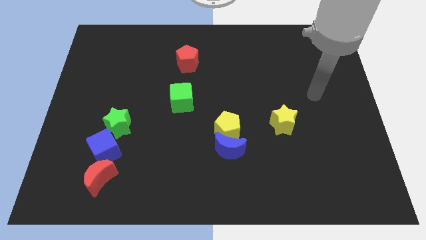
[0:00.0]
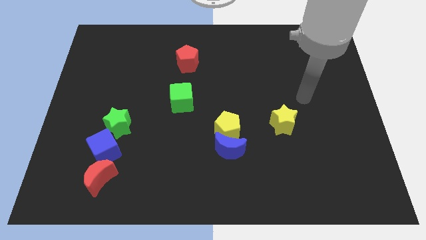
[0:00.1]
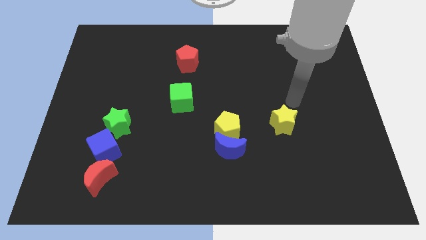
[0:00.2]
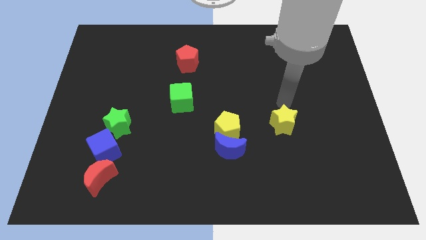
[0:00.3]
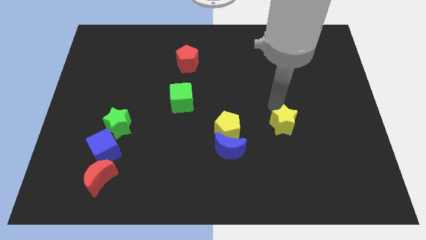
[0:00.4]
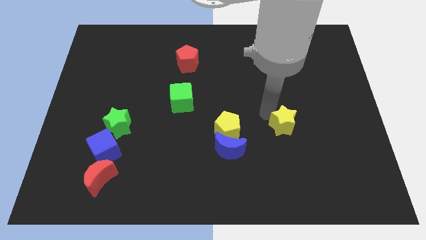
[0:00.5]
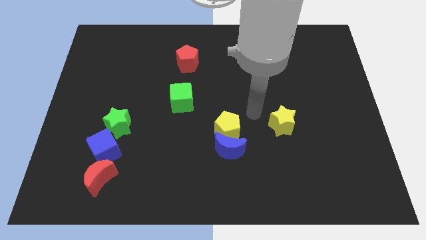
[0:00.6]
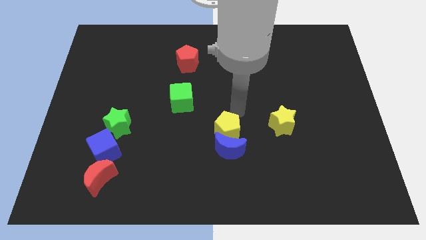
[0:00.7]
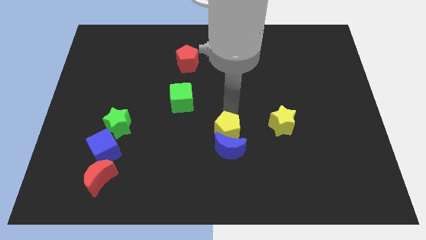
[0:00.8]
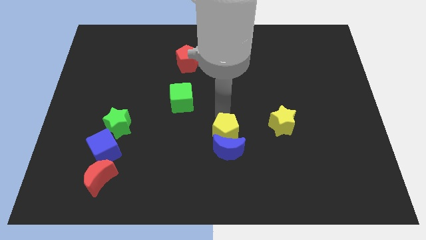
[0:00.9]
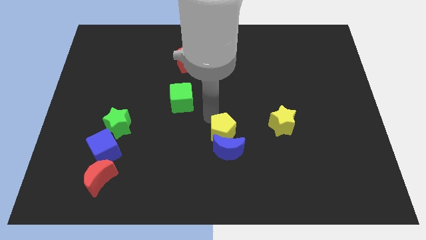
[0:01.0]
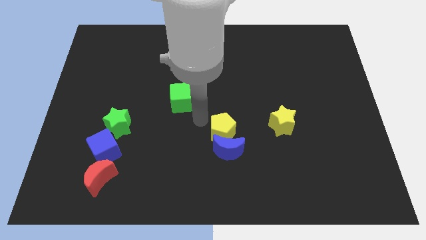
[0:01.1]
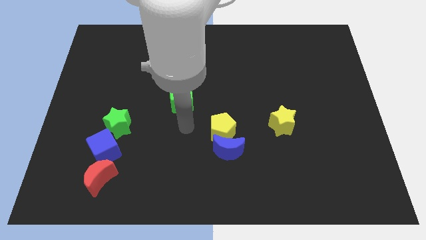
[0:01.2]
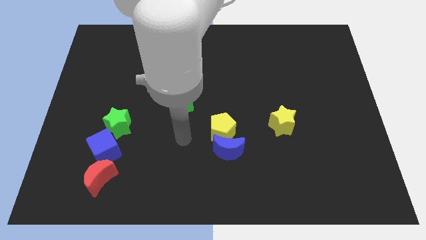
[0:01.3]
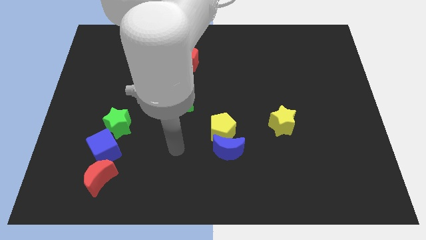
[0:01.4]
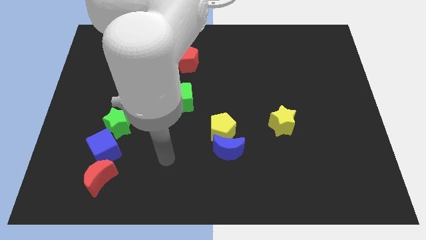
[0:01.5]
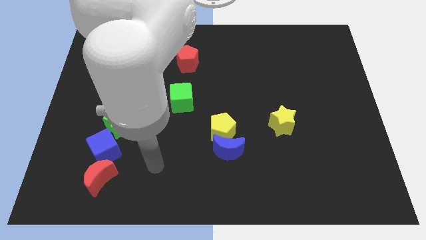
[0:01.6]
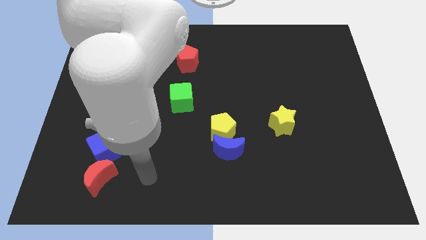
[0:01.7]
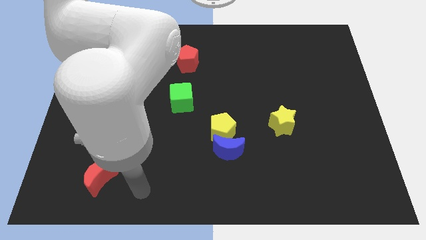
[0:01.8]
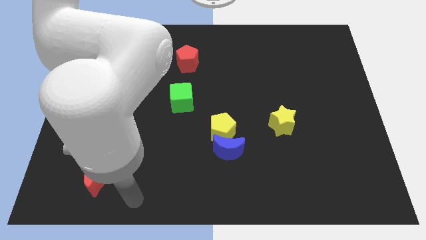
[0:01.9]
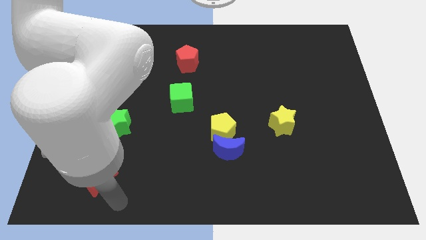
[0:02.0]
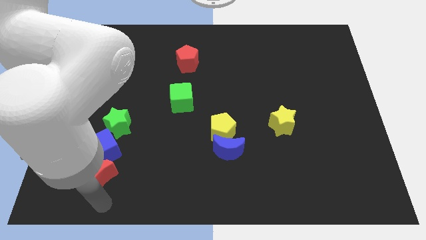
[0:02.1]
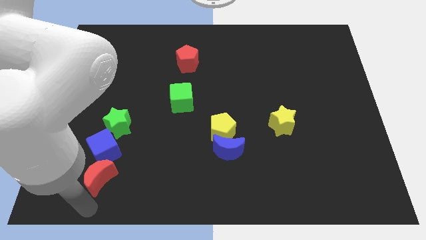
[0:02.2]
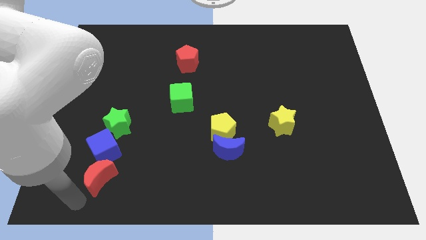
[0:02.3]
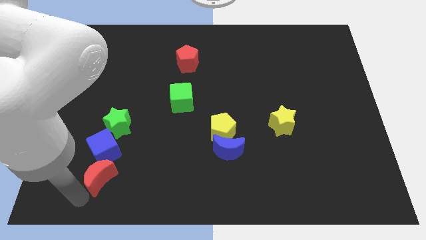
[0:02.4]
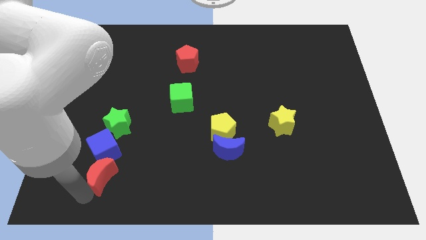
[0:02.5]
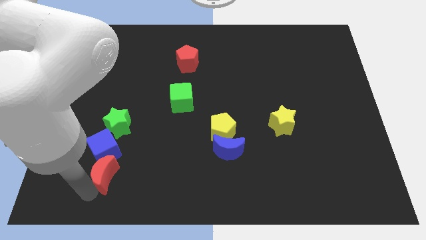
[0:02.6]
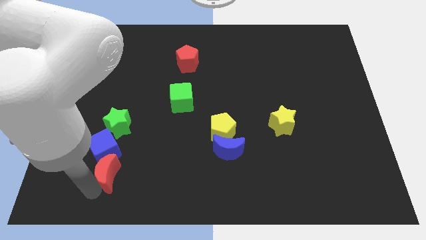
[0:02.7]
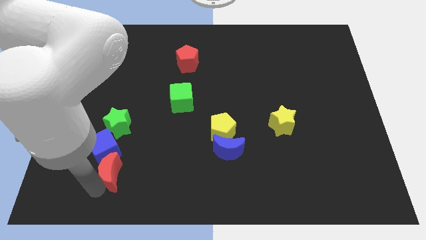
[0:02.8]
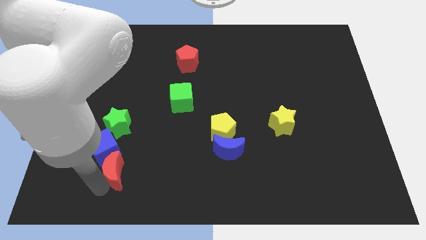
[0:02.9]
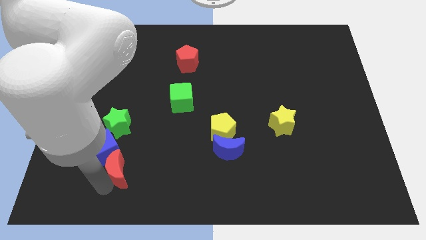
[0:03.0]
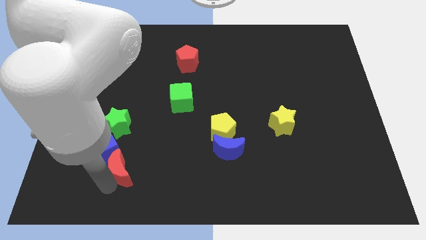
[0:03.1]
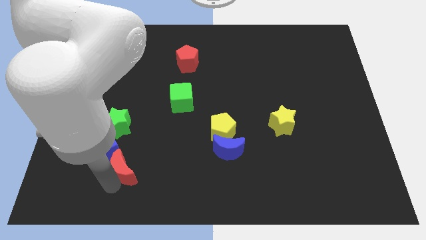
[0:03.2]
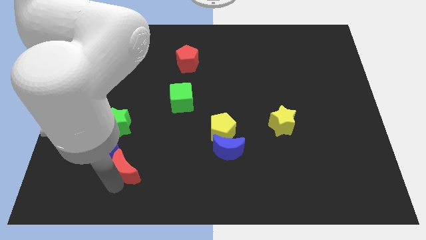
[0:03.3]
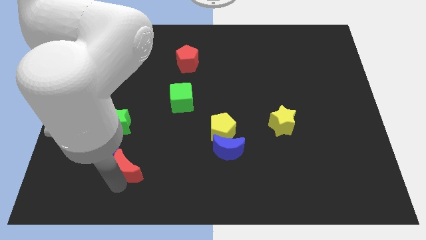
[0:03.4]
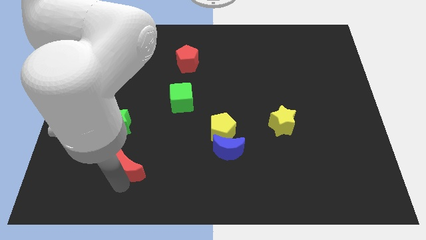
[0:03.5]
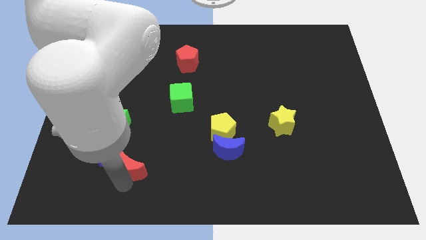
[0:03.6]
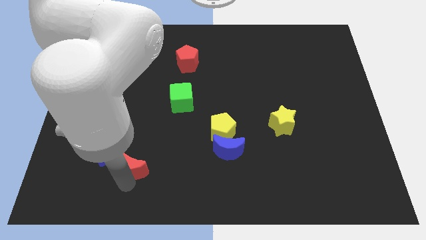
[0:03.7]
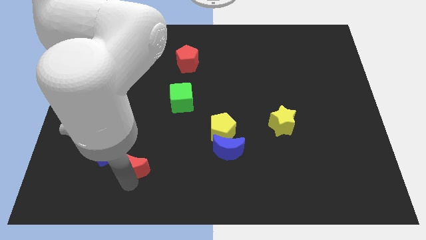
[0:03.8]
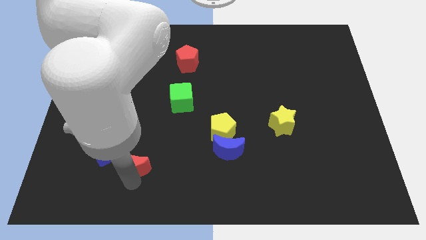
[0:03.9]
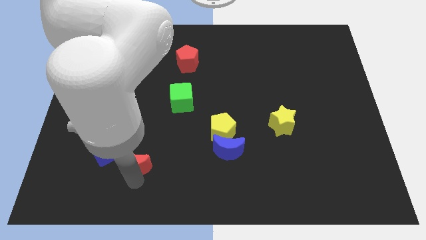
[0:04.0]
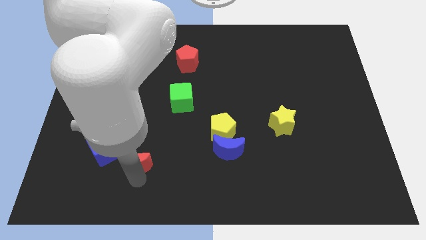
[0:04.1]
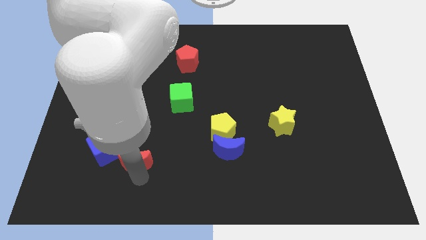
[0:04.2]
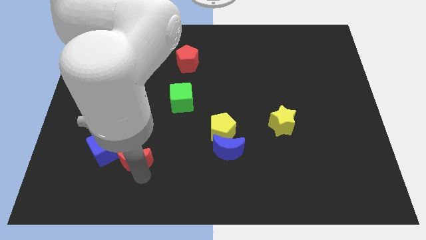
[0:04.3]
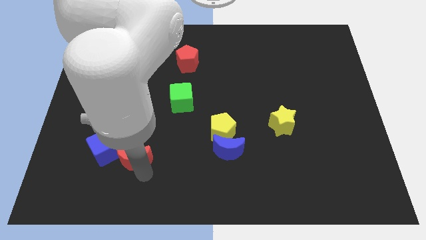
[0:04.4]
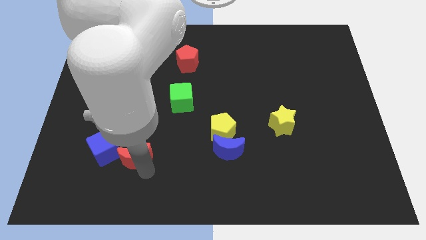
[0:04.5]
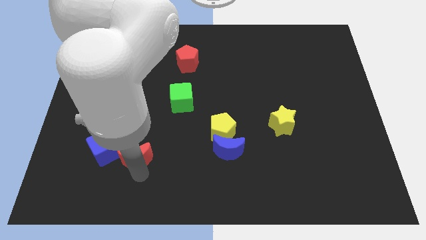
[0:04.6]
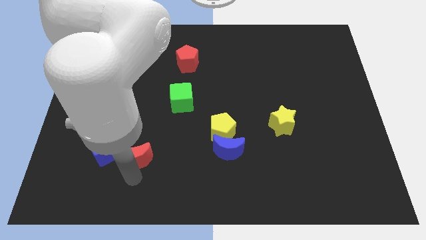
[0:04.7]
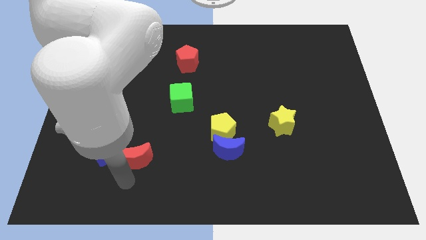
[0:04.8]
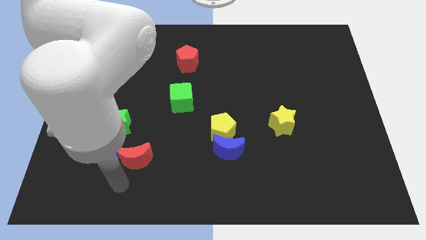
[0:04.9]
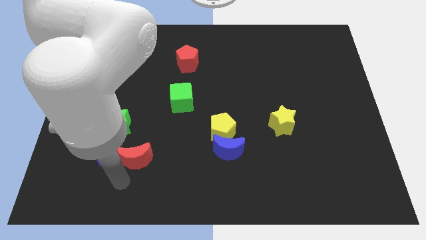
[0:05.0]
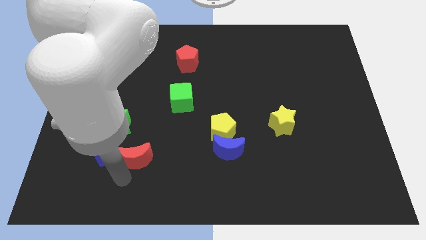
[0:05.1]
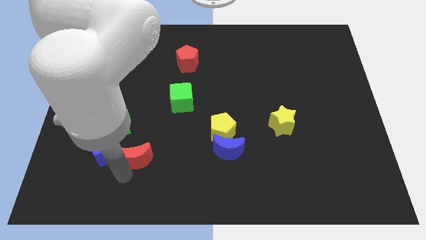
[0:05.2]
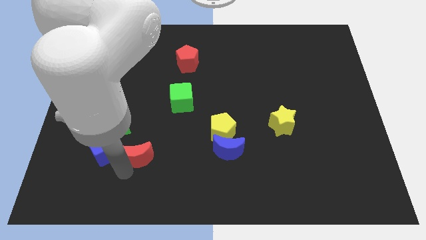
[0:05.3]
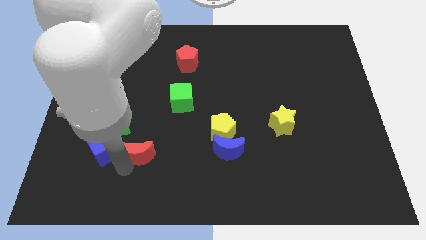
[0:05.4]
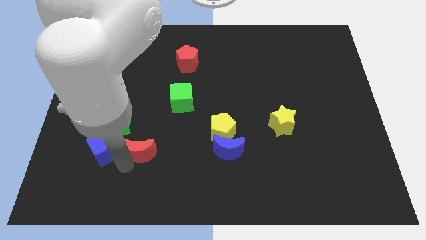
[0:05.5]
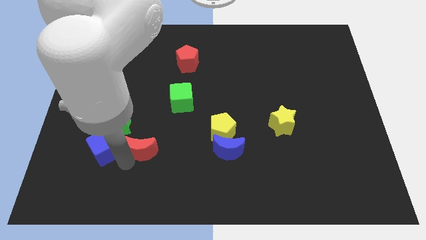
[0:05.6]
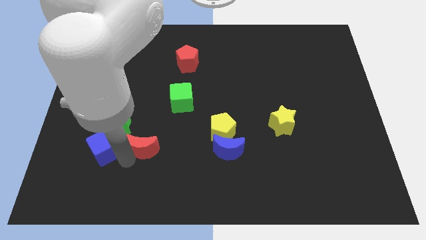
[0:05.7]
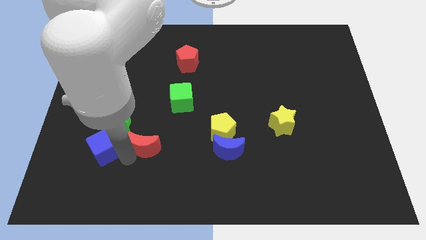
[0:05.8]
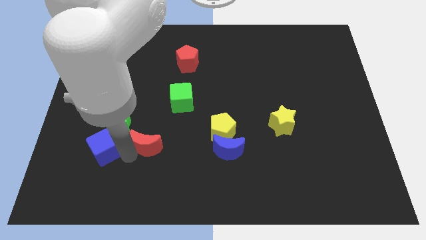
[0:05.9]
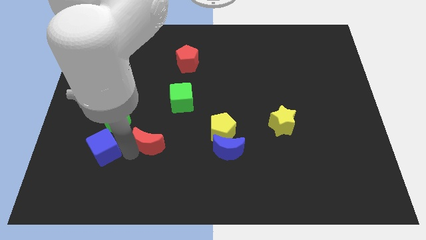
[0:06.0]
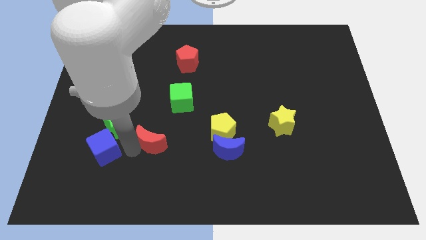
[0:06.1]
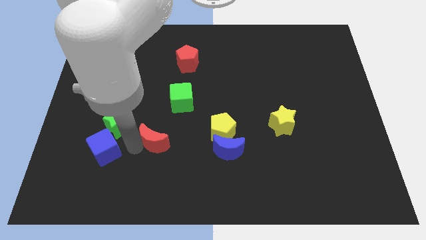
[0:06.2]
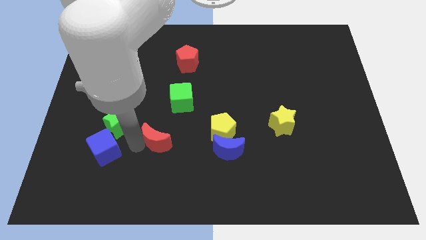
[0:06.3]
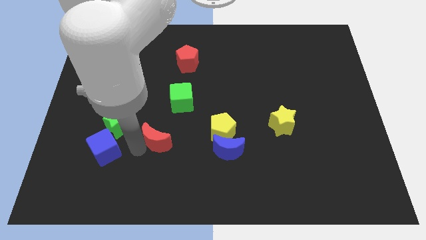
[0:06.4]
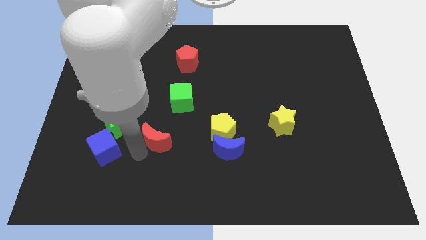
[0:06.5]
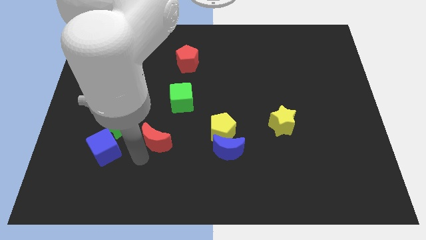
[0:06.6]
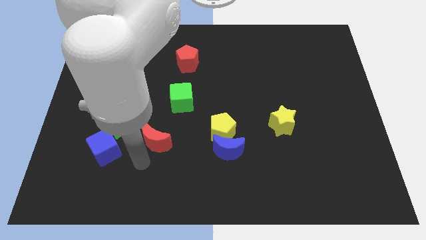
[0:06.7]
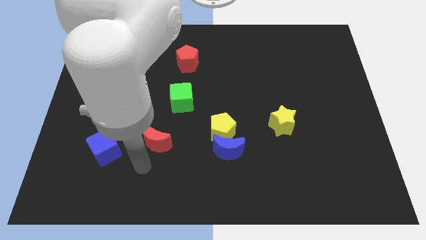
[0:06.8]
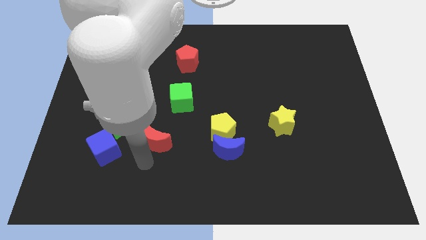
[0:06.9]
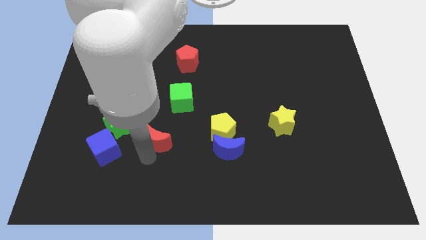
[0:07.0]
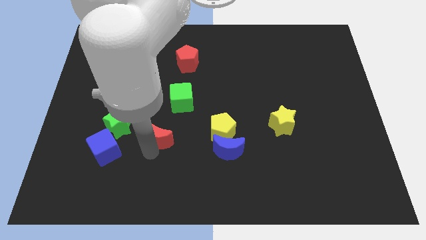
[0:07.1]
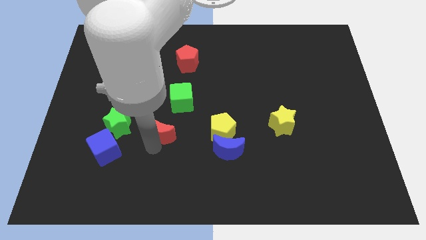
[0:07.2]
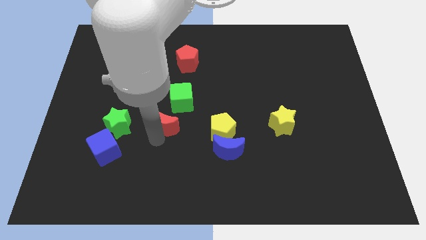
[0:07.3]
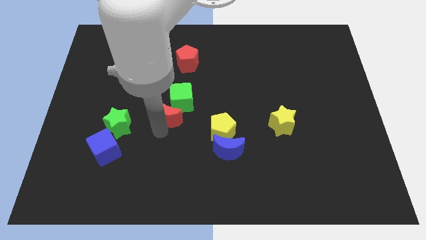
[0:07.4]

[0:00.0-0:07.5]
move the red moon next to the green cube

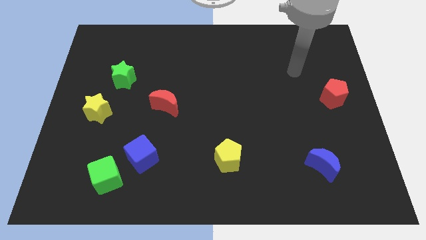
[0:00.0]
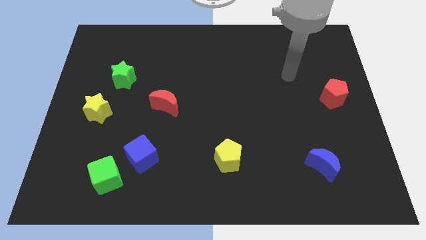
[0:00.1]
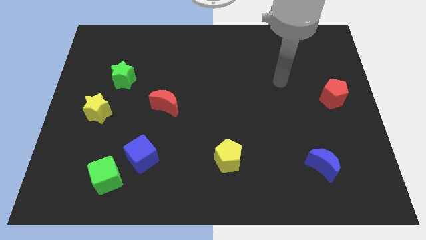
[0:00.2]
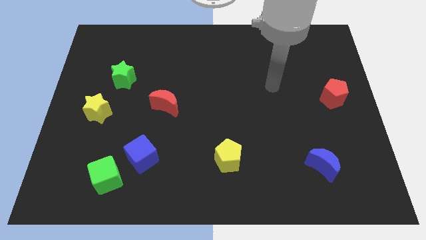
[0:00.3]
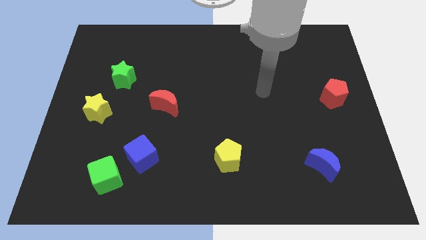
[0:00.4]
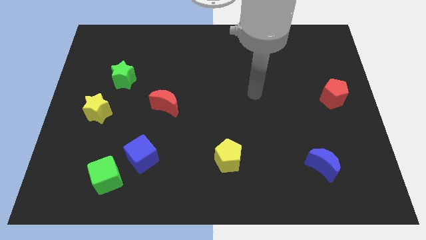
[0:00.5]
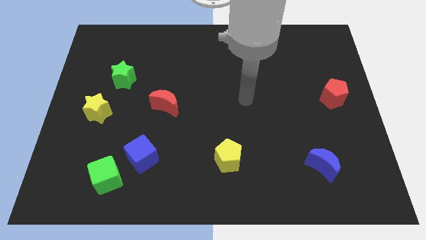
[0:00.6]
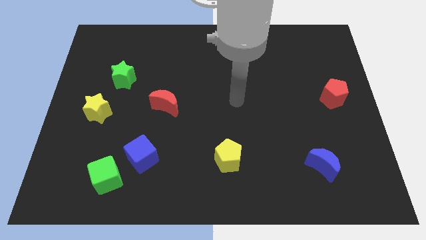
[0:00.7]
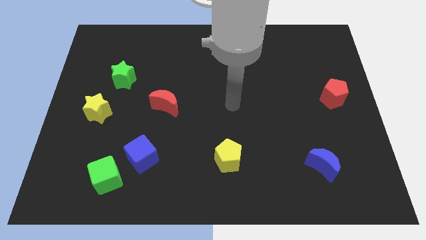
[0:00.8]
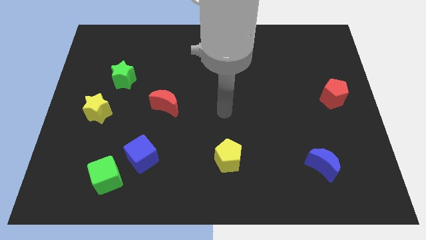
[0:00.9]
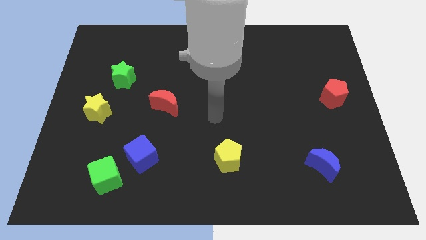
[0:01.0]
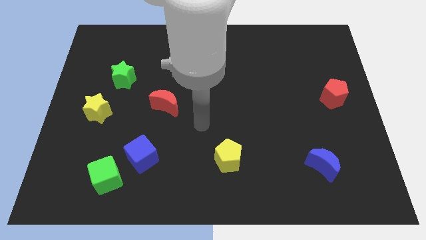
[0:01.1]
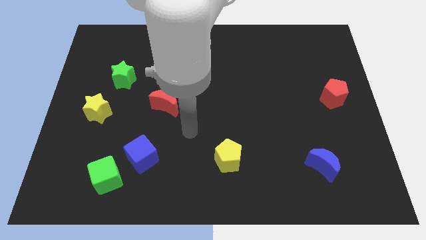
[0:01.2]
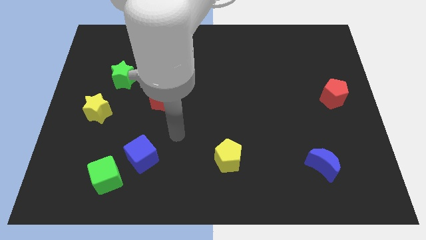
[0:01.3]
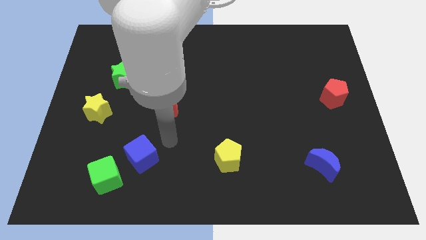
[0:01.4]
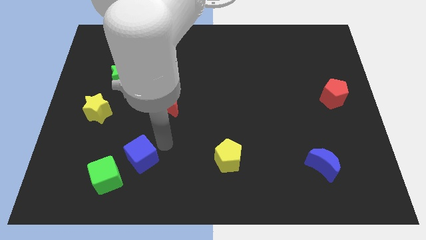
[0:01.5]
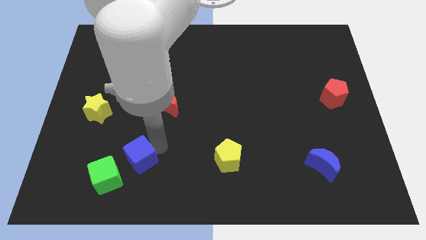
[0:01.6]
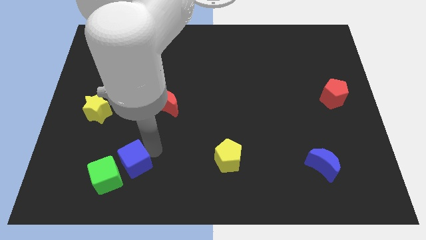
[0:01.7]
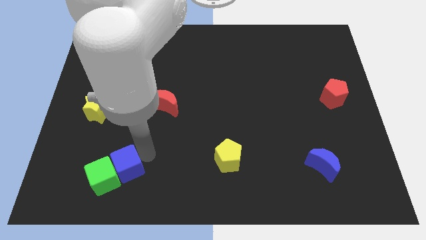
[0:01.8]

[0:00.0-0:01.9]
put the blue cube next to the green cube
